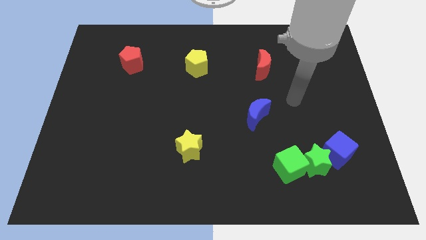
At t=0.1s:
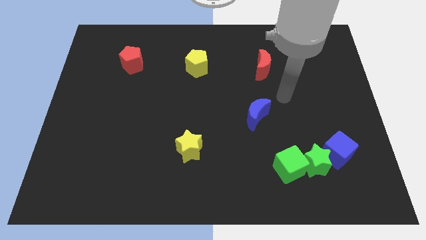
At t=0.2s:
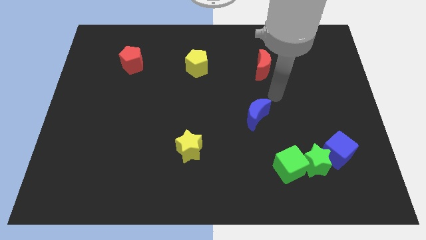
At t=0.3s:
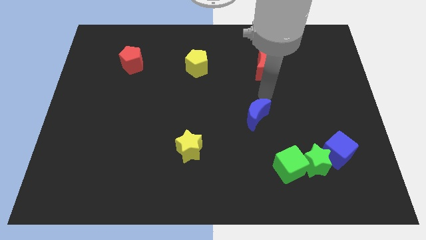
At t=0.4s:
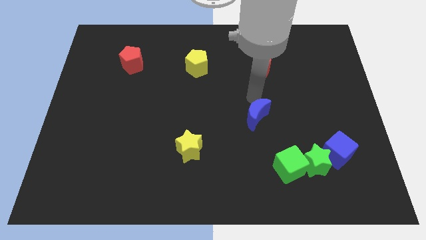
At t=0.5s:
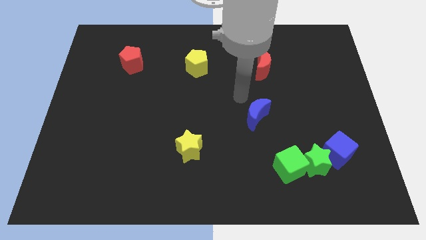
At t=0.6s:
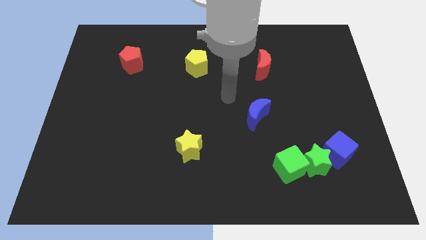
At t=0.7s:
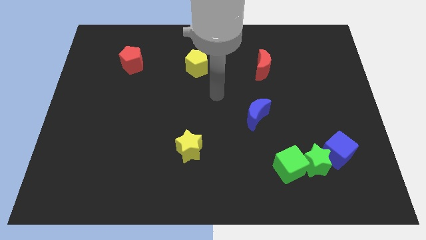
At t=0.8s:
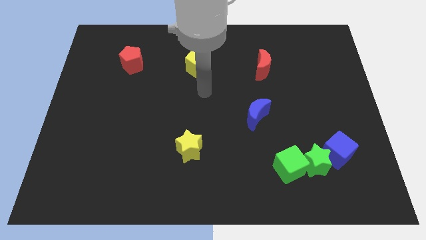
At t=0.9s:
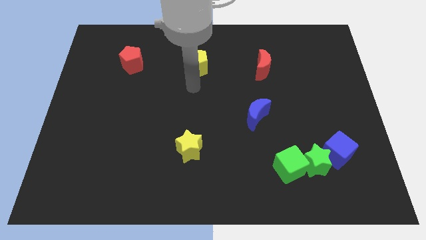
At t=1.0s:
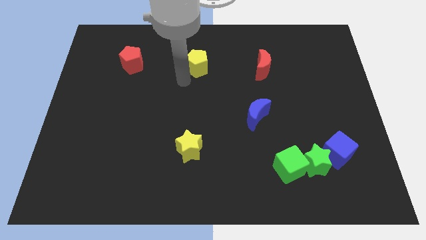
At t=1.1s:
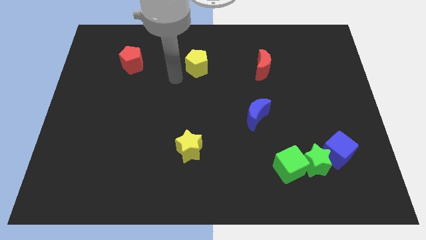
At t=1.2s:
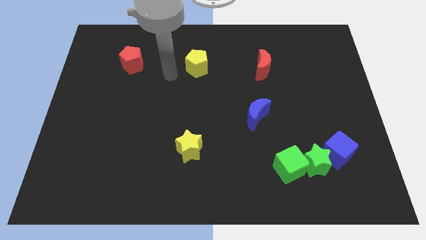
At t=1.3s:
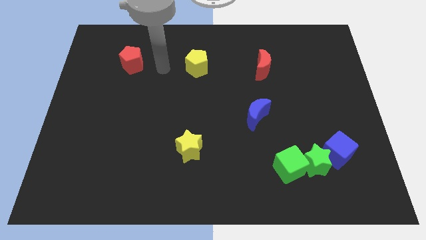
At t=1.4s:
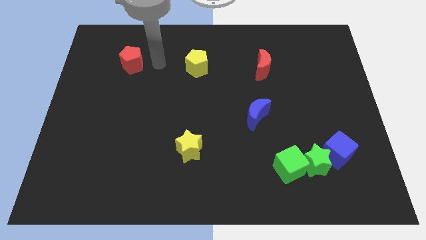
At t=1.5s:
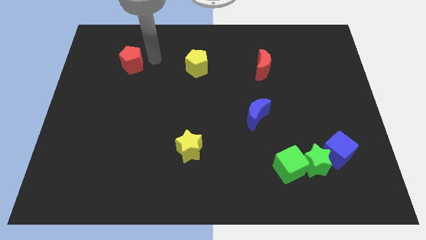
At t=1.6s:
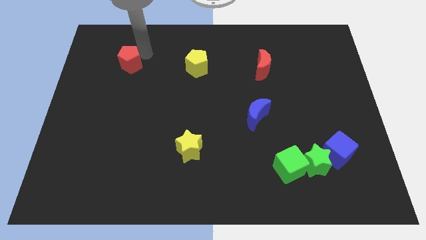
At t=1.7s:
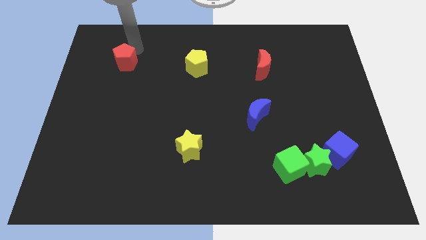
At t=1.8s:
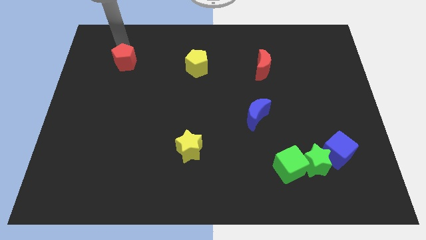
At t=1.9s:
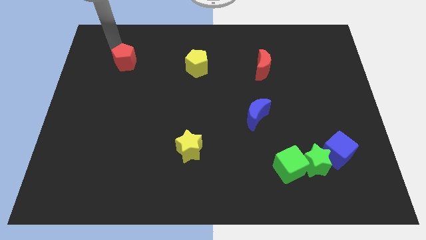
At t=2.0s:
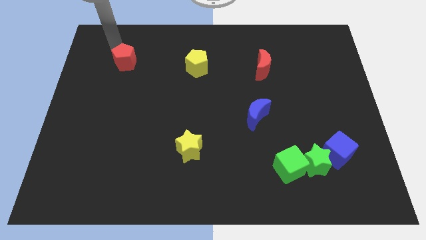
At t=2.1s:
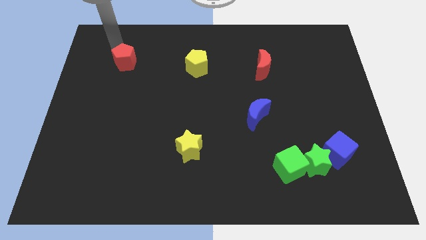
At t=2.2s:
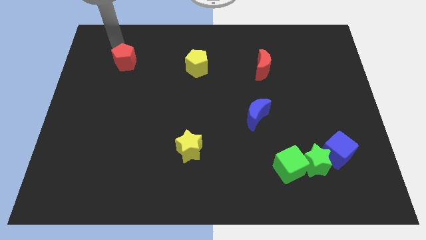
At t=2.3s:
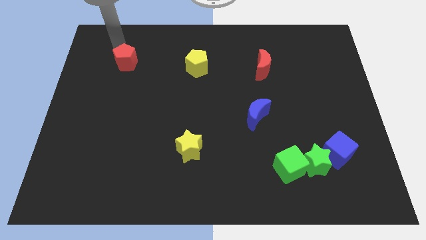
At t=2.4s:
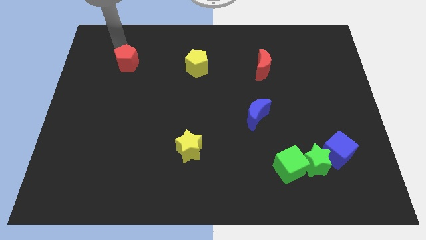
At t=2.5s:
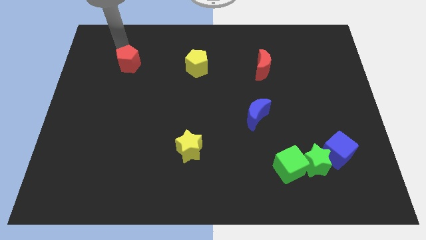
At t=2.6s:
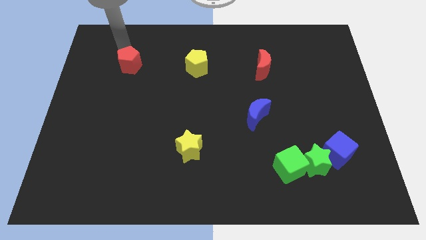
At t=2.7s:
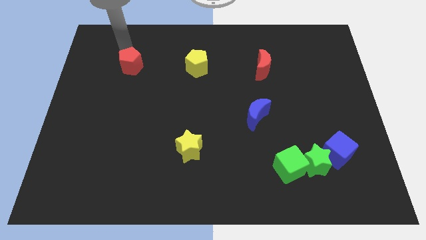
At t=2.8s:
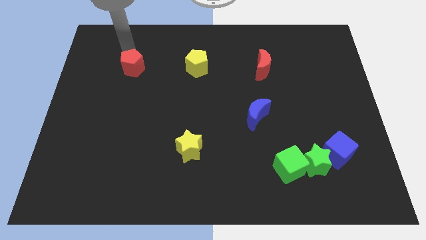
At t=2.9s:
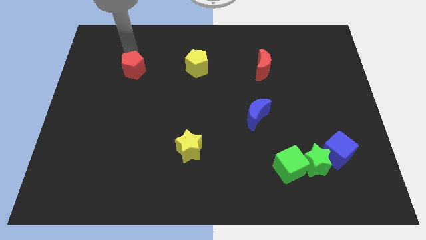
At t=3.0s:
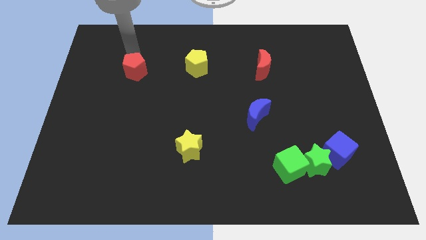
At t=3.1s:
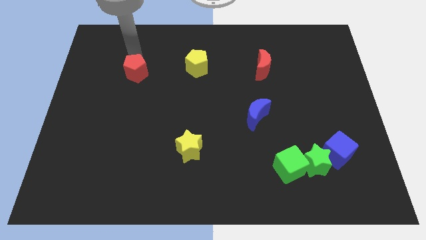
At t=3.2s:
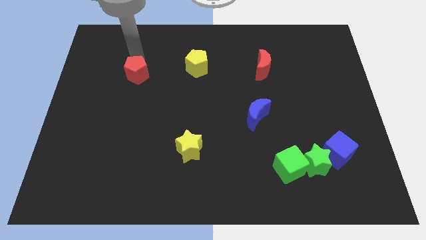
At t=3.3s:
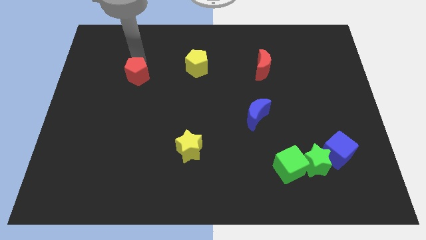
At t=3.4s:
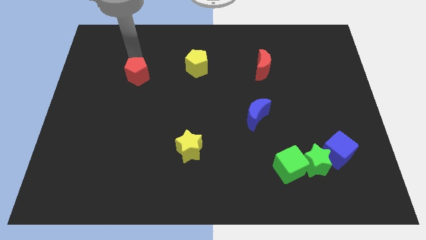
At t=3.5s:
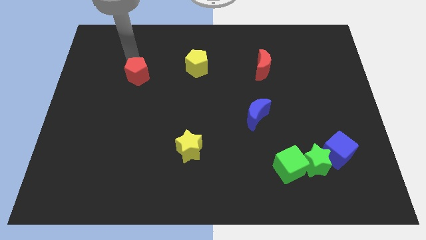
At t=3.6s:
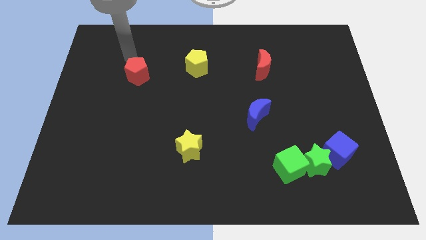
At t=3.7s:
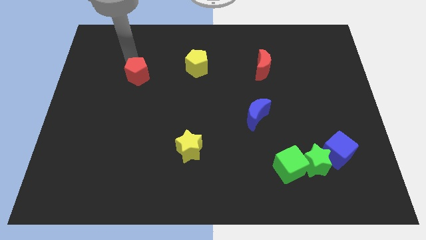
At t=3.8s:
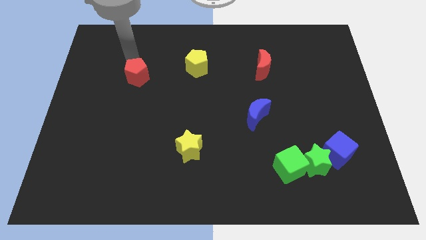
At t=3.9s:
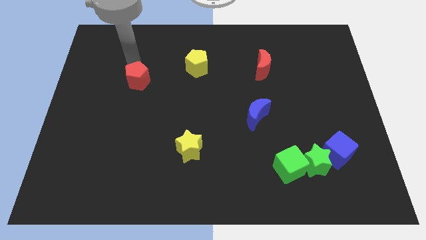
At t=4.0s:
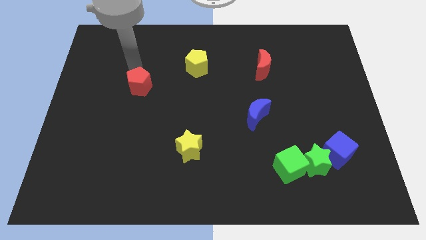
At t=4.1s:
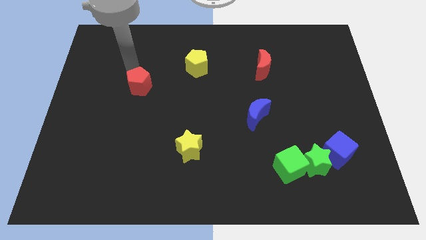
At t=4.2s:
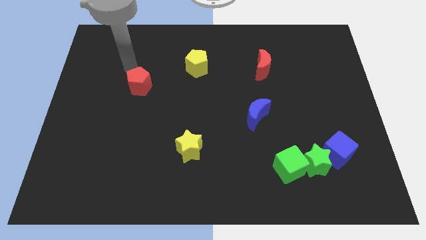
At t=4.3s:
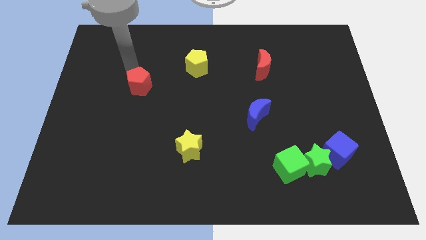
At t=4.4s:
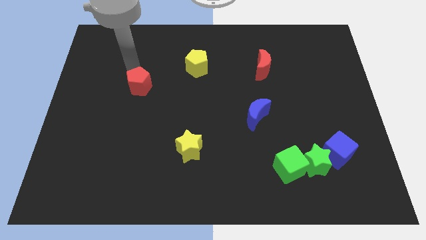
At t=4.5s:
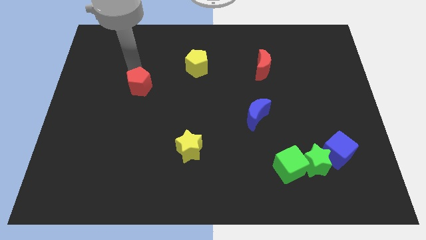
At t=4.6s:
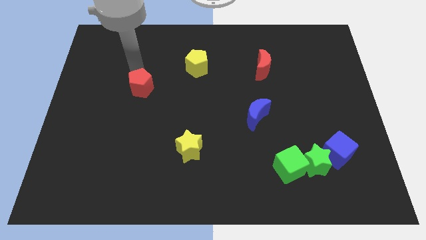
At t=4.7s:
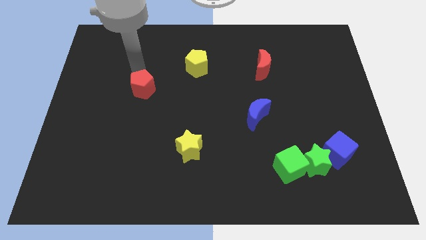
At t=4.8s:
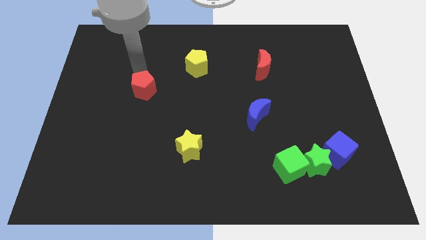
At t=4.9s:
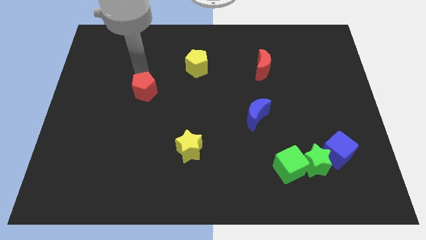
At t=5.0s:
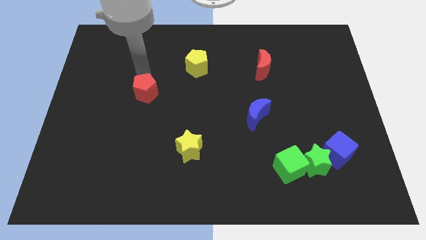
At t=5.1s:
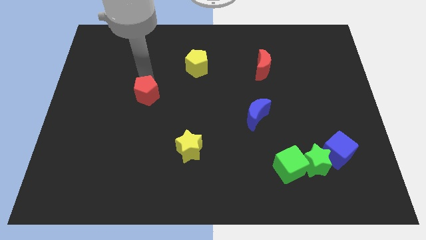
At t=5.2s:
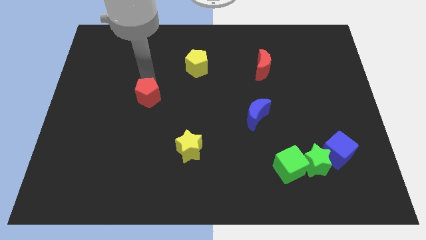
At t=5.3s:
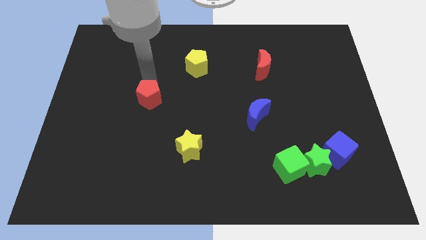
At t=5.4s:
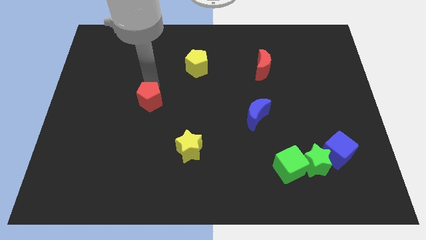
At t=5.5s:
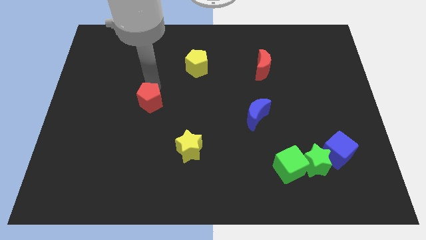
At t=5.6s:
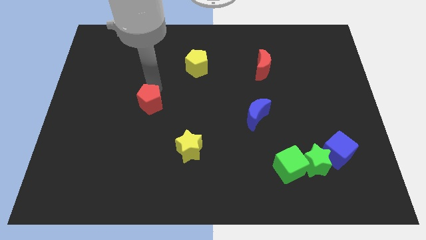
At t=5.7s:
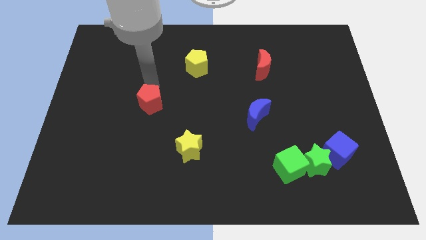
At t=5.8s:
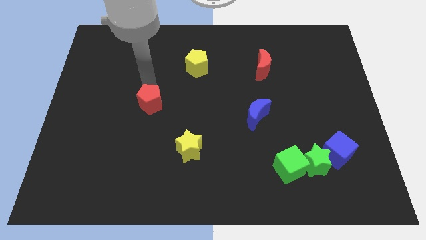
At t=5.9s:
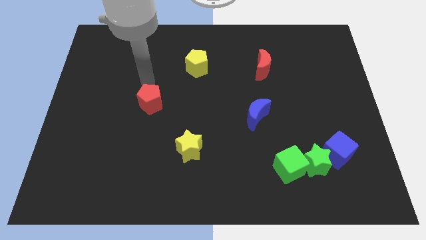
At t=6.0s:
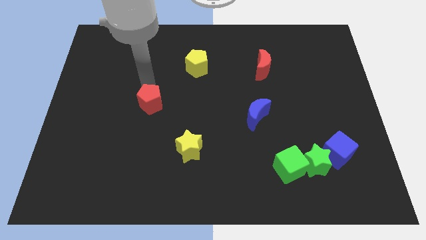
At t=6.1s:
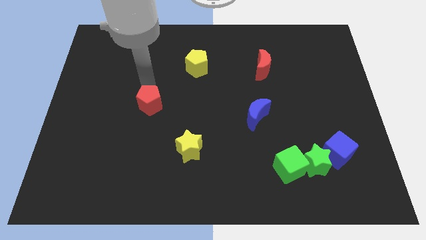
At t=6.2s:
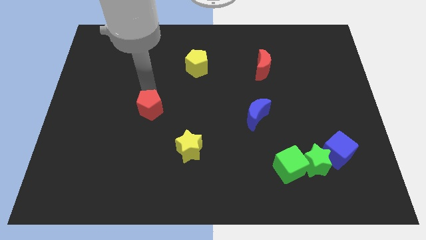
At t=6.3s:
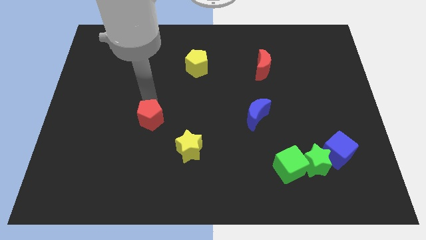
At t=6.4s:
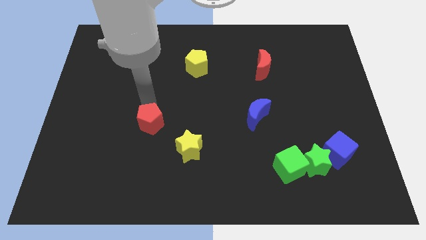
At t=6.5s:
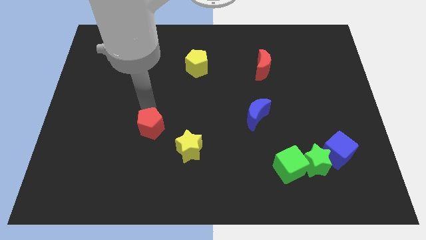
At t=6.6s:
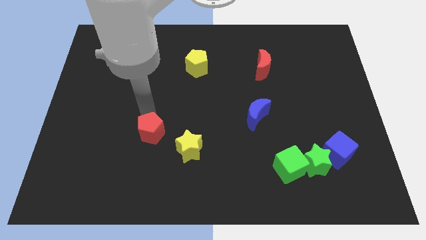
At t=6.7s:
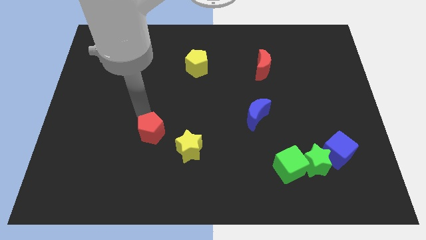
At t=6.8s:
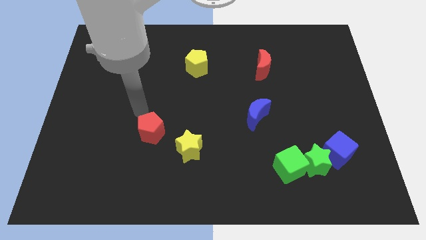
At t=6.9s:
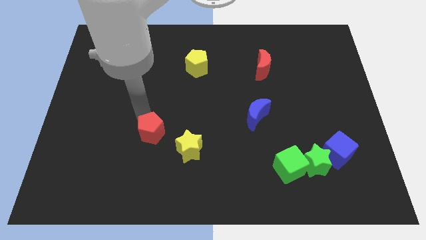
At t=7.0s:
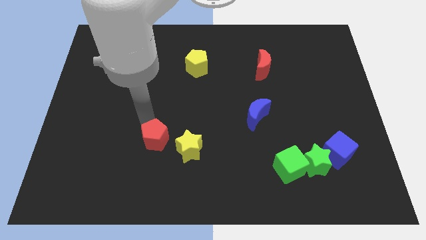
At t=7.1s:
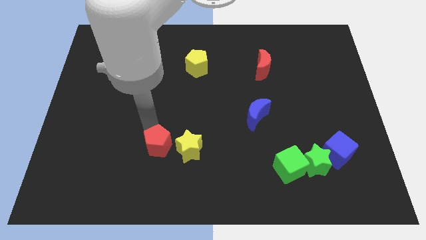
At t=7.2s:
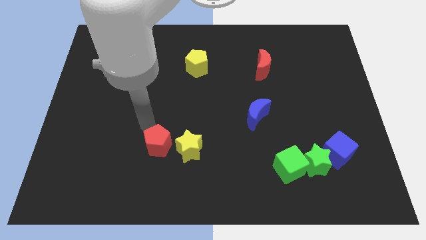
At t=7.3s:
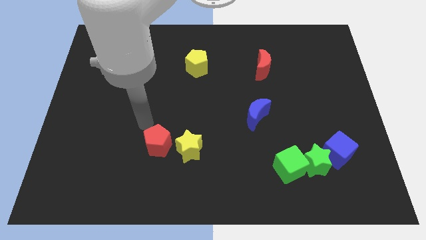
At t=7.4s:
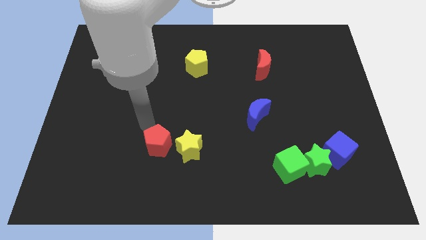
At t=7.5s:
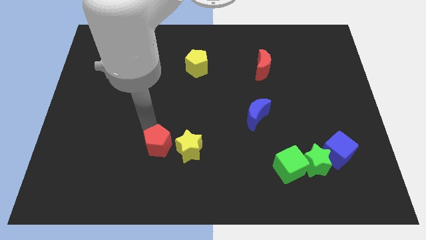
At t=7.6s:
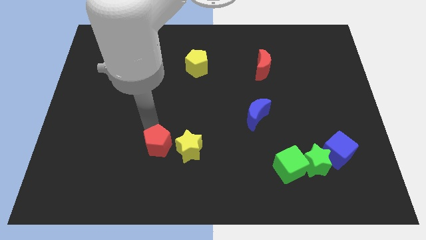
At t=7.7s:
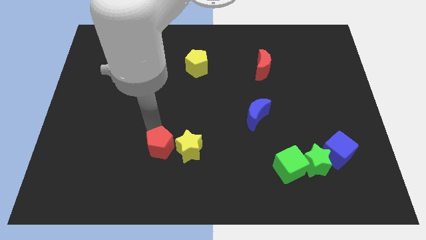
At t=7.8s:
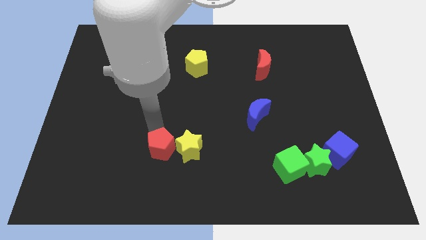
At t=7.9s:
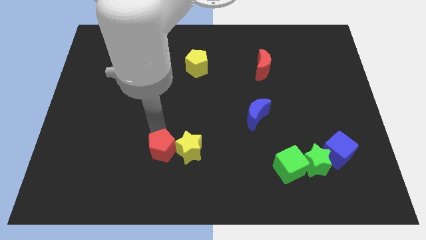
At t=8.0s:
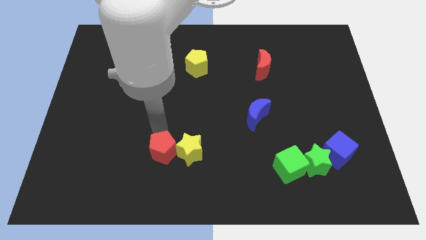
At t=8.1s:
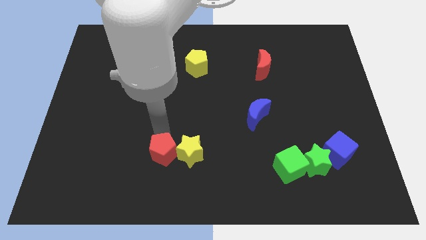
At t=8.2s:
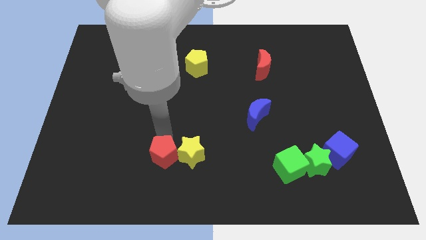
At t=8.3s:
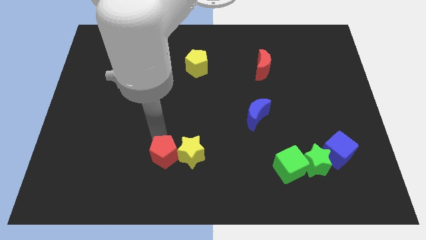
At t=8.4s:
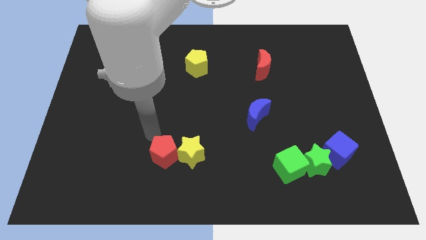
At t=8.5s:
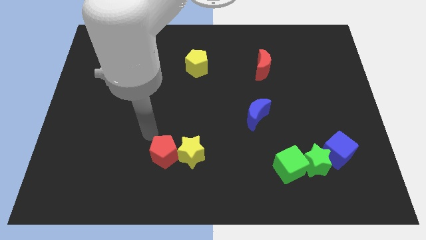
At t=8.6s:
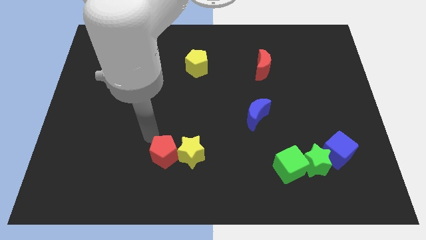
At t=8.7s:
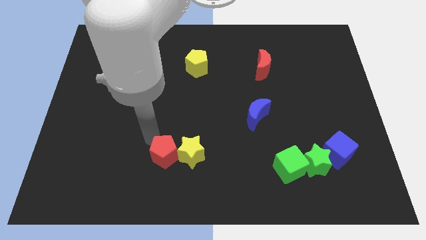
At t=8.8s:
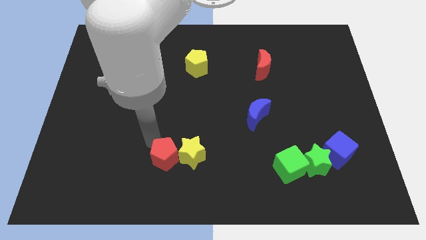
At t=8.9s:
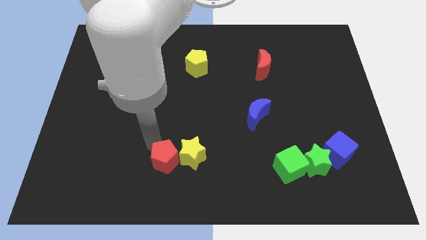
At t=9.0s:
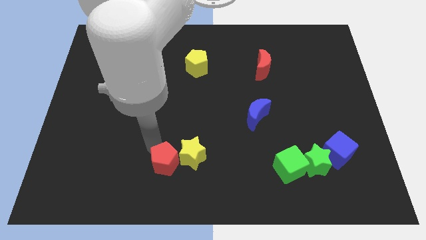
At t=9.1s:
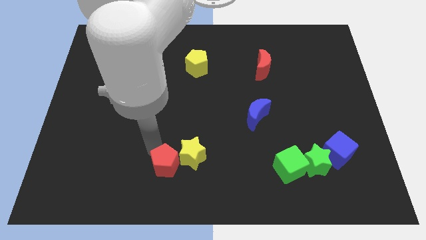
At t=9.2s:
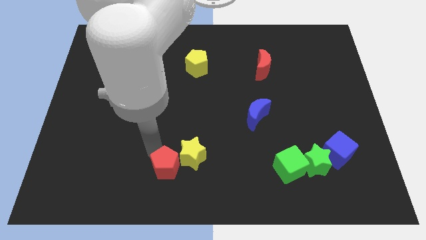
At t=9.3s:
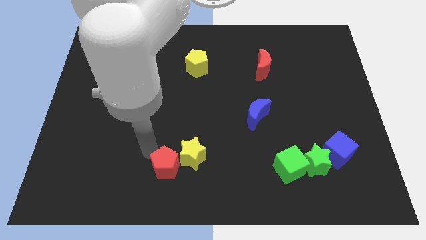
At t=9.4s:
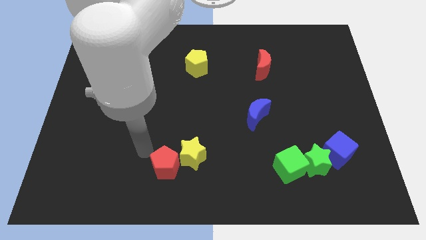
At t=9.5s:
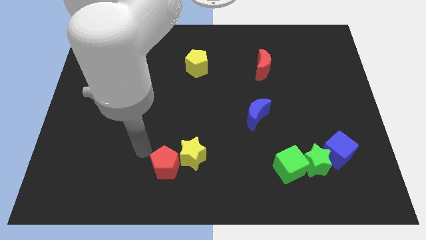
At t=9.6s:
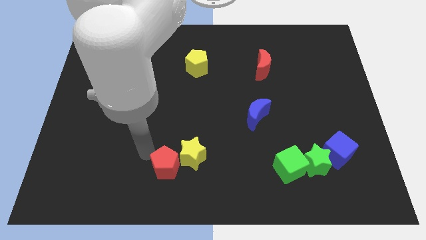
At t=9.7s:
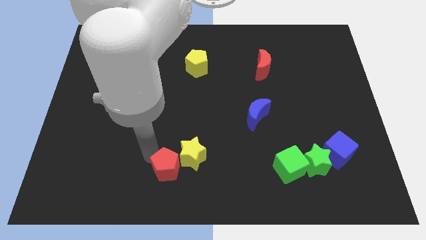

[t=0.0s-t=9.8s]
put the red pentagon to the bottom side
